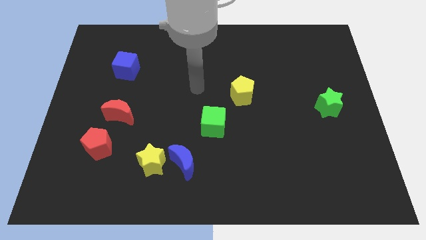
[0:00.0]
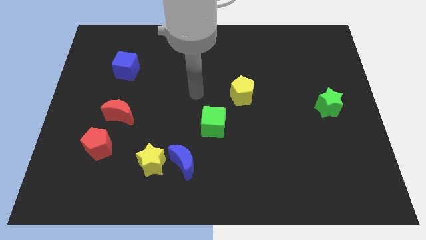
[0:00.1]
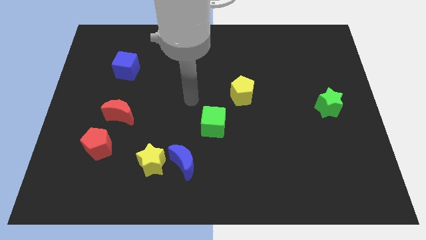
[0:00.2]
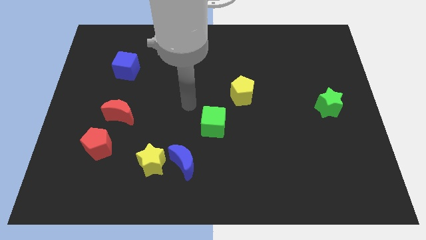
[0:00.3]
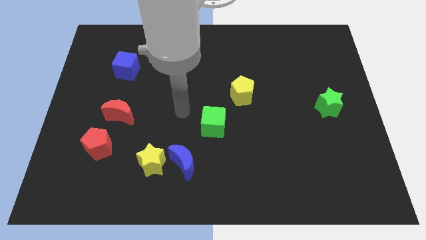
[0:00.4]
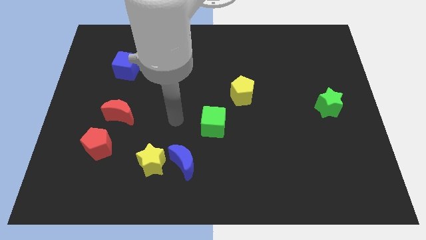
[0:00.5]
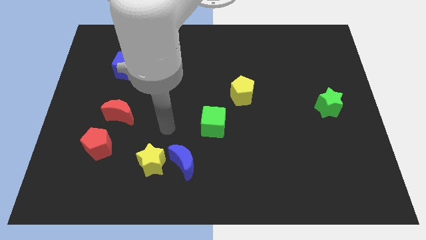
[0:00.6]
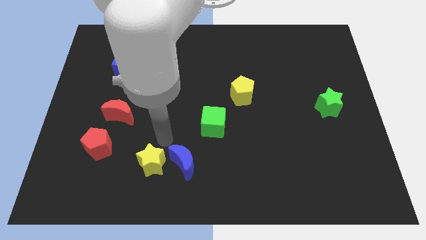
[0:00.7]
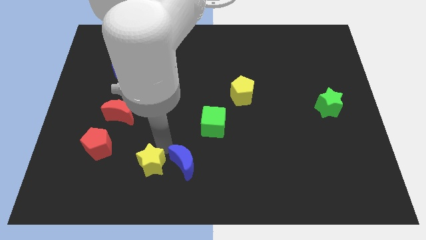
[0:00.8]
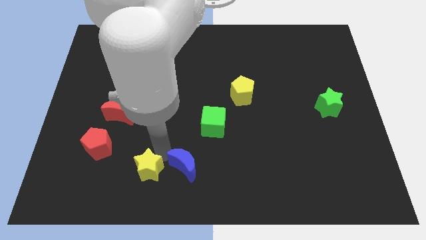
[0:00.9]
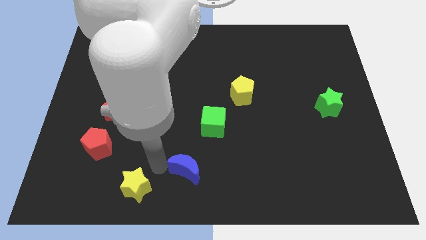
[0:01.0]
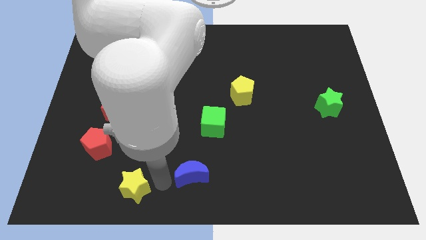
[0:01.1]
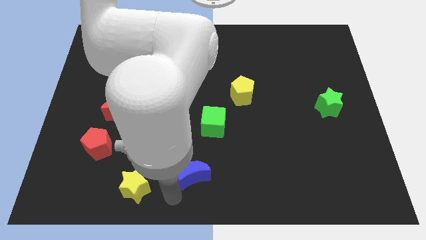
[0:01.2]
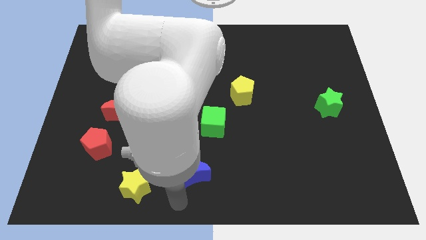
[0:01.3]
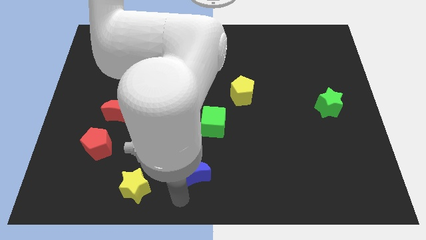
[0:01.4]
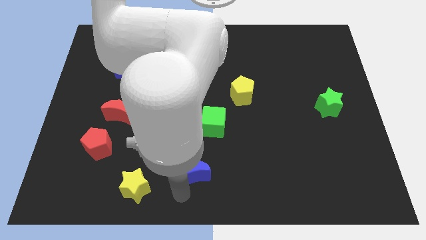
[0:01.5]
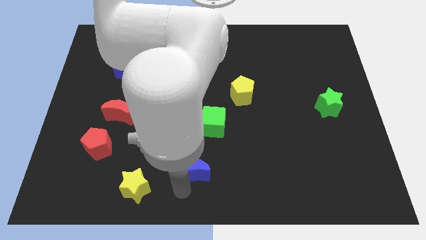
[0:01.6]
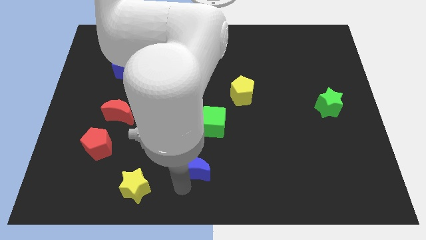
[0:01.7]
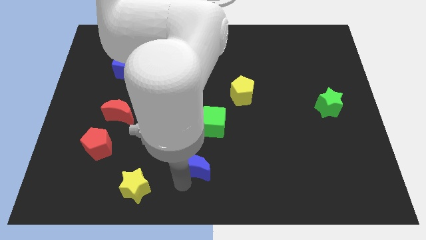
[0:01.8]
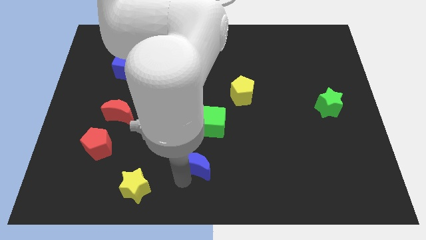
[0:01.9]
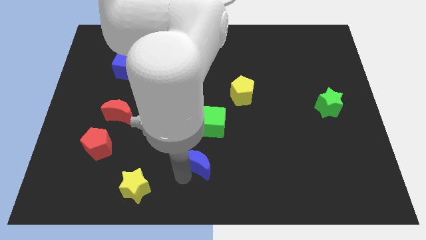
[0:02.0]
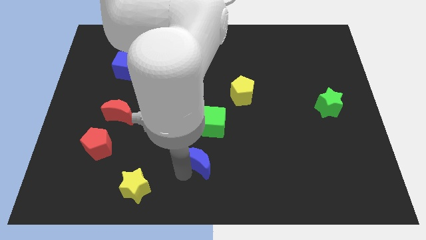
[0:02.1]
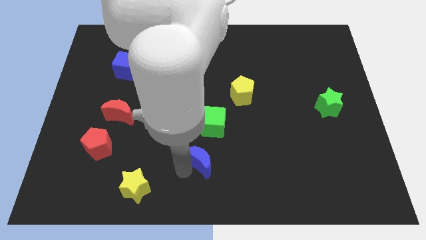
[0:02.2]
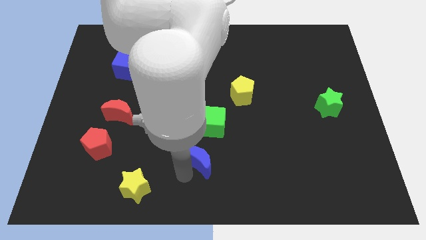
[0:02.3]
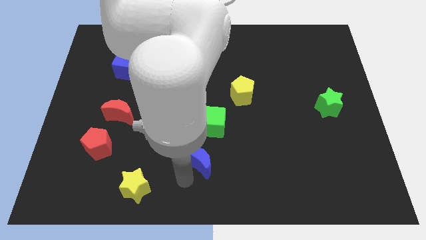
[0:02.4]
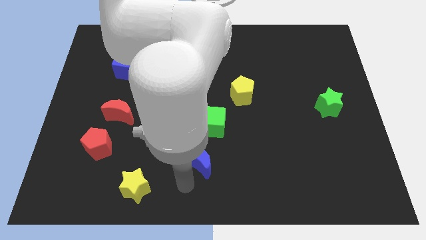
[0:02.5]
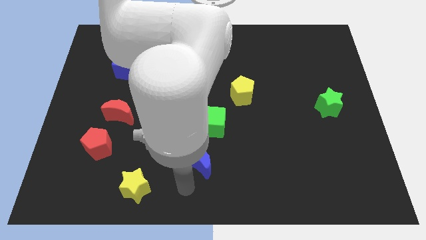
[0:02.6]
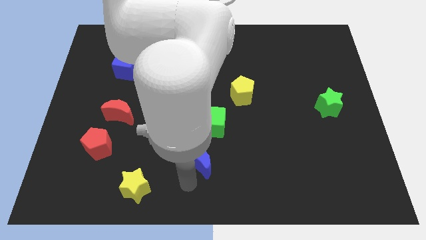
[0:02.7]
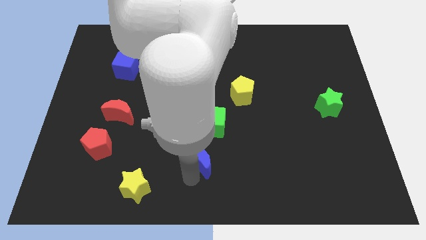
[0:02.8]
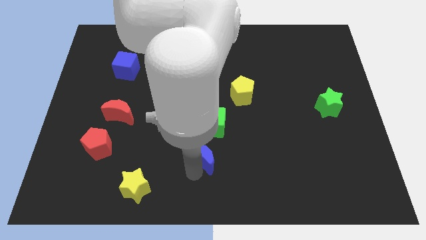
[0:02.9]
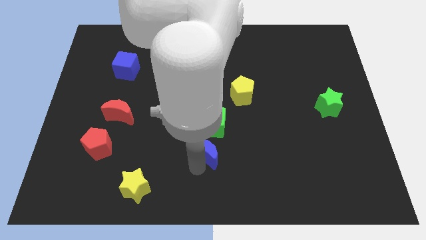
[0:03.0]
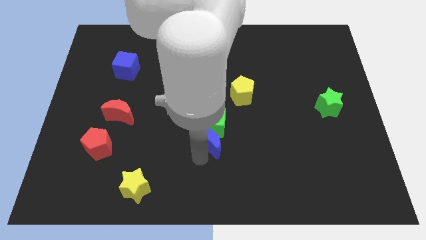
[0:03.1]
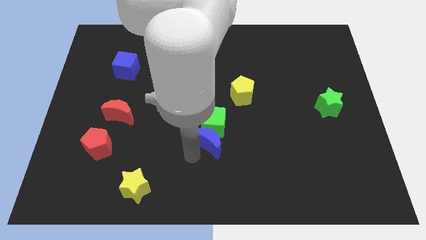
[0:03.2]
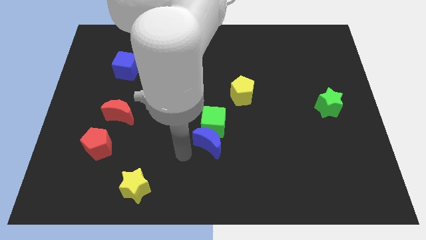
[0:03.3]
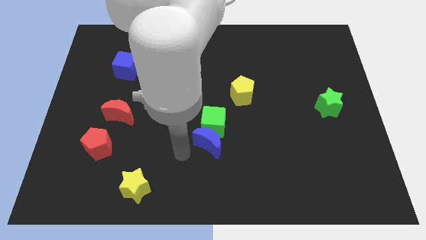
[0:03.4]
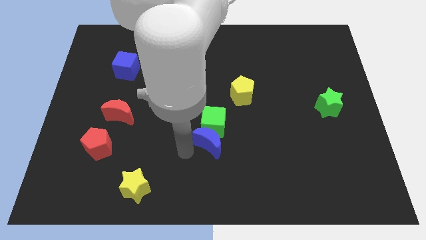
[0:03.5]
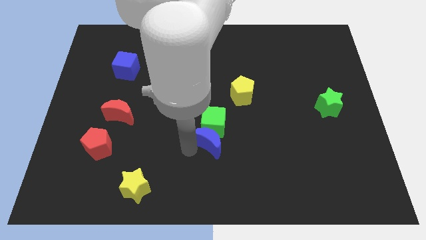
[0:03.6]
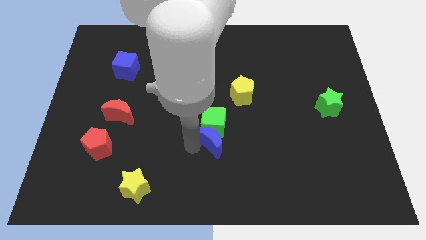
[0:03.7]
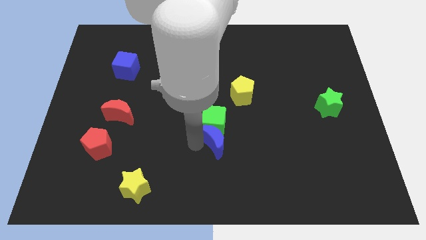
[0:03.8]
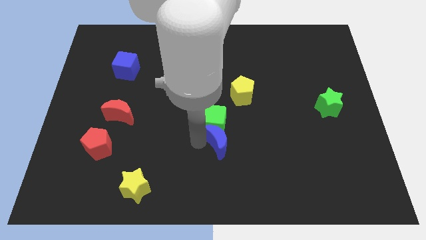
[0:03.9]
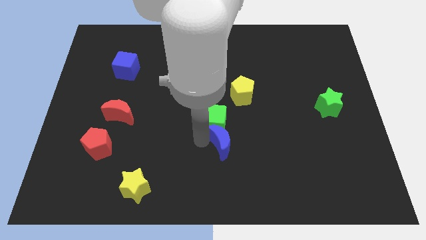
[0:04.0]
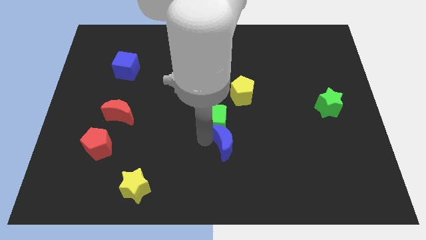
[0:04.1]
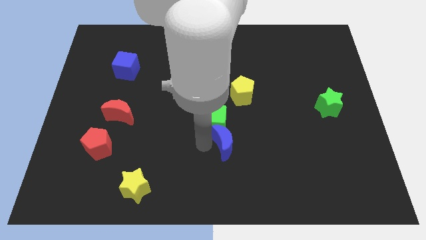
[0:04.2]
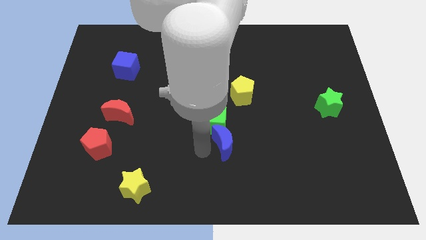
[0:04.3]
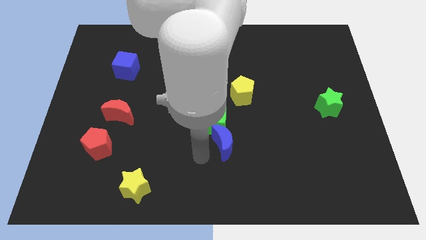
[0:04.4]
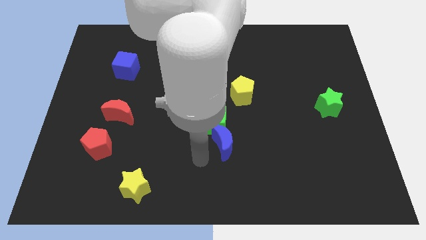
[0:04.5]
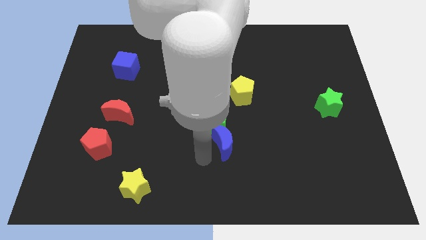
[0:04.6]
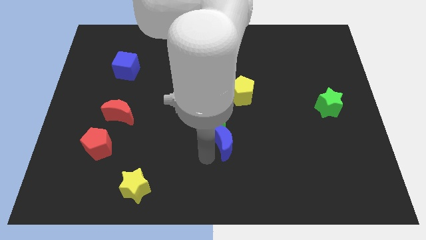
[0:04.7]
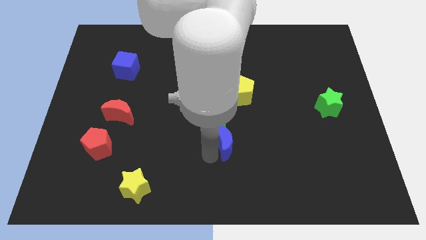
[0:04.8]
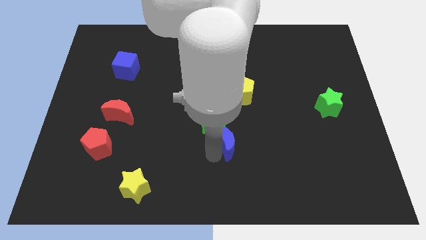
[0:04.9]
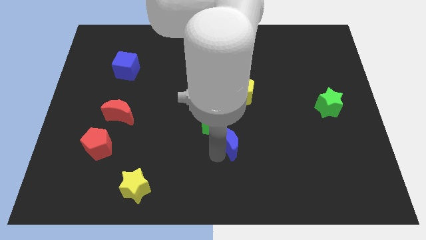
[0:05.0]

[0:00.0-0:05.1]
push the blue moon to the bottom side of the yellow pentagon

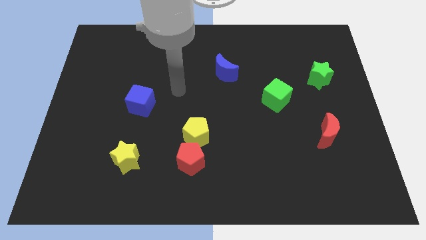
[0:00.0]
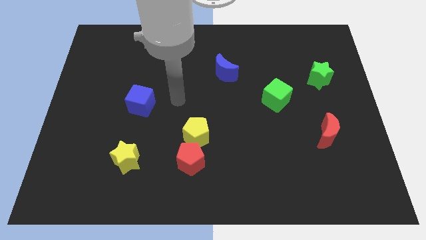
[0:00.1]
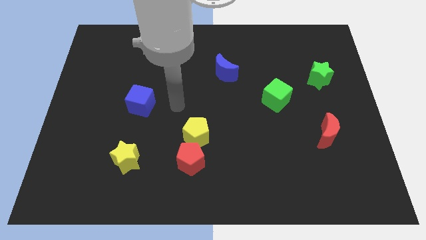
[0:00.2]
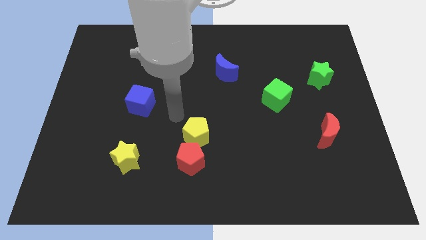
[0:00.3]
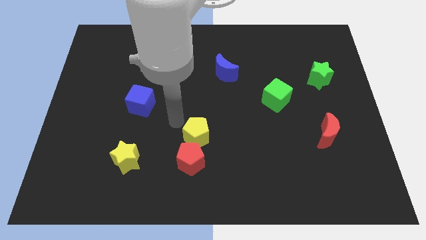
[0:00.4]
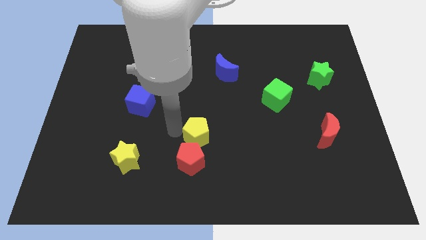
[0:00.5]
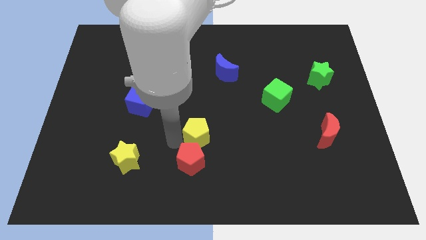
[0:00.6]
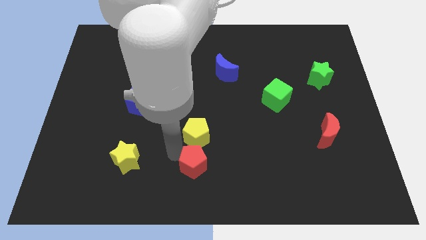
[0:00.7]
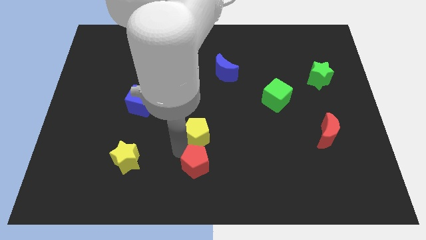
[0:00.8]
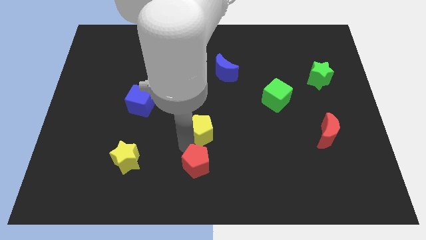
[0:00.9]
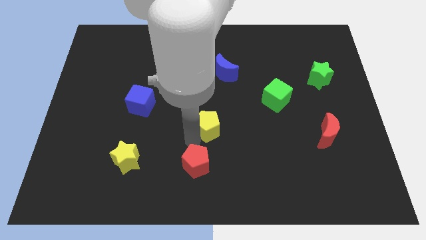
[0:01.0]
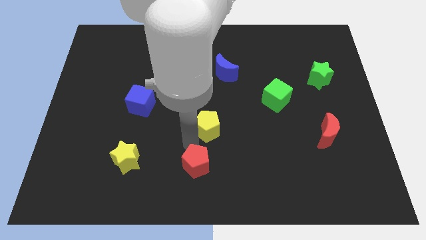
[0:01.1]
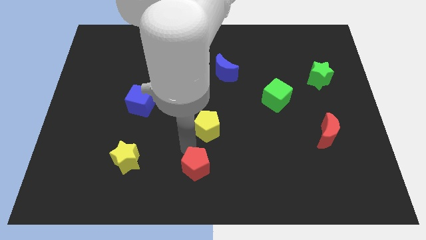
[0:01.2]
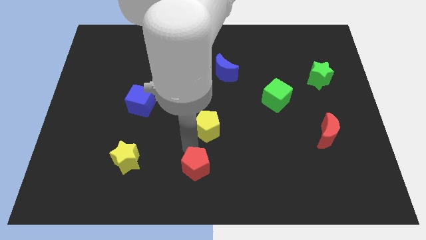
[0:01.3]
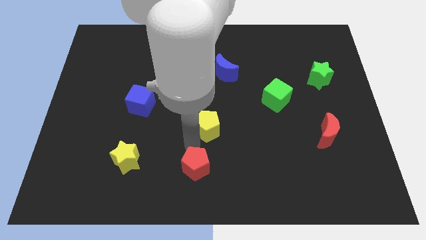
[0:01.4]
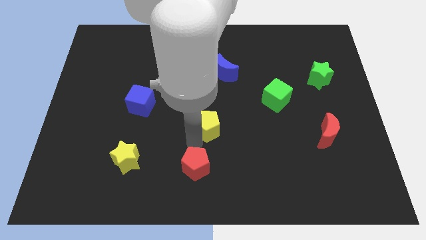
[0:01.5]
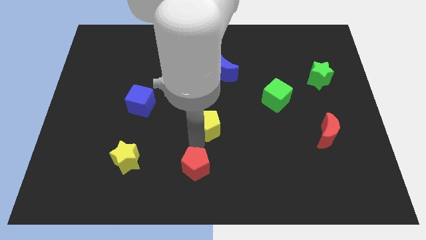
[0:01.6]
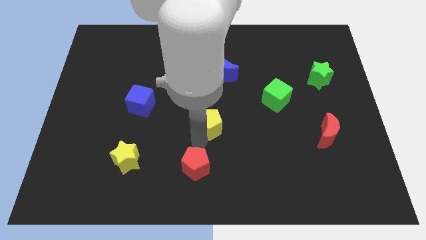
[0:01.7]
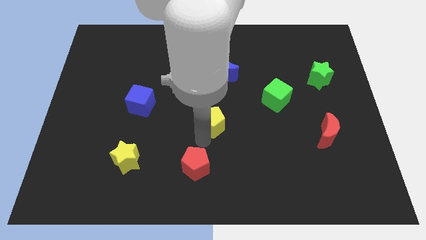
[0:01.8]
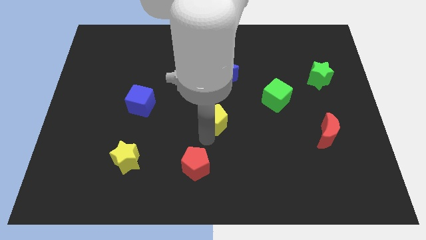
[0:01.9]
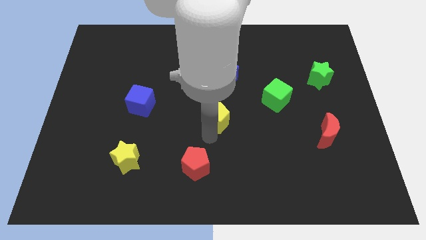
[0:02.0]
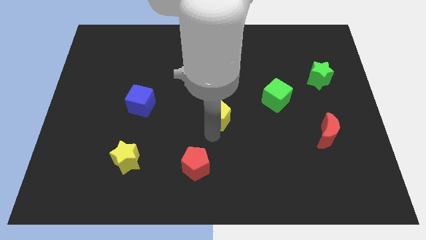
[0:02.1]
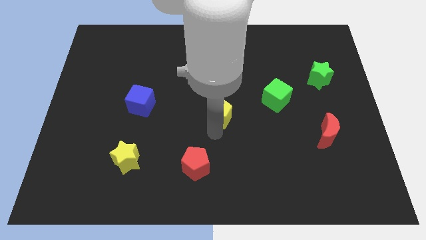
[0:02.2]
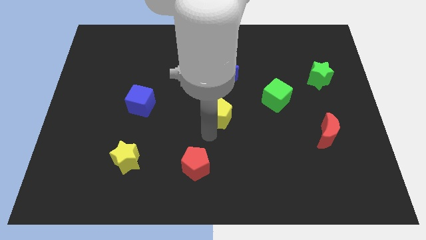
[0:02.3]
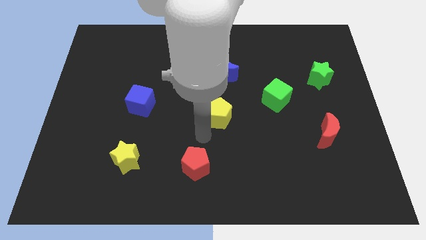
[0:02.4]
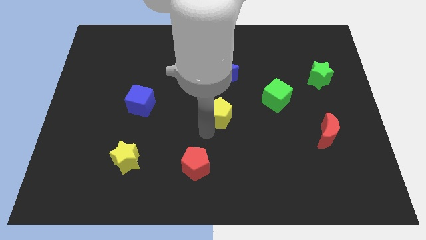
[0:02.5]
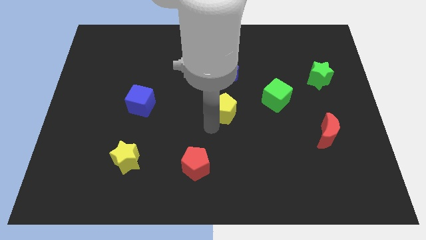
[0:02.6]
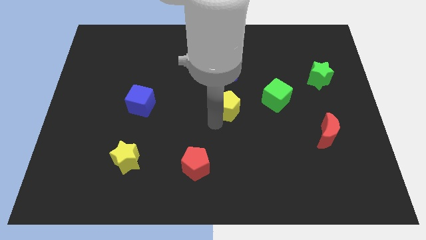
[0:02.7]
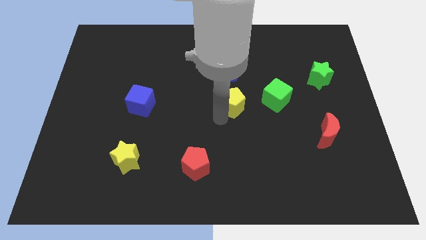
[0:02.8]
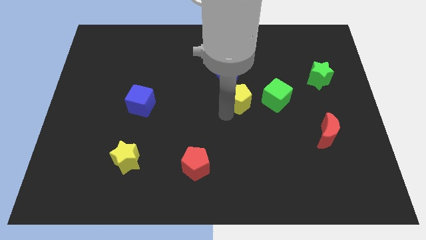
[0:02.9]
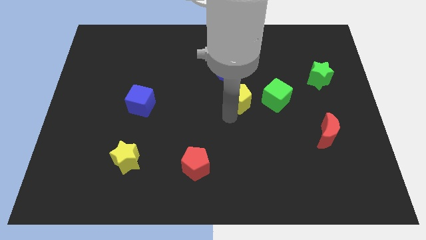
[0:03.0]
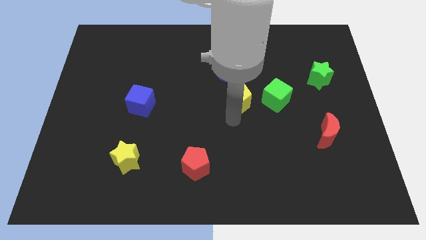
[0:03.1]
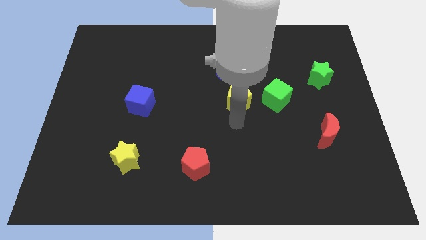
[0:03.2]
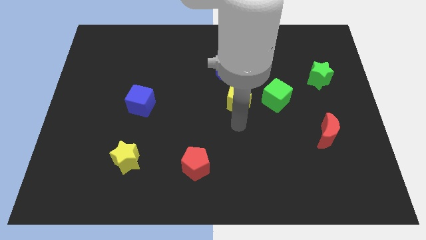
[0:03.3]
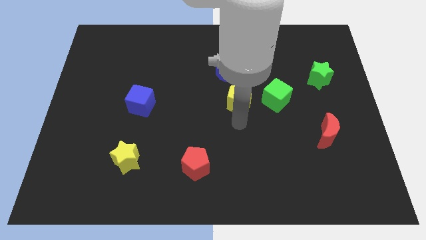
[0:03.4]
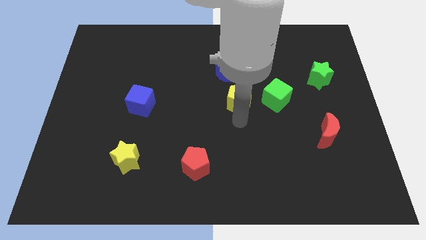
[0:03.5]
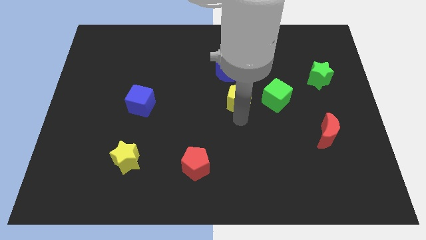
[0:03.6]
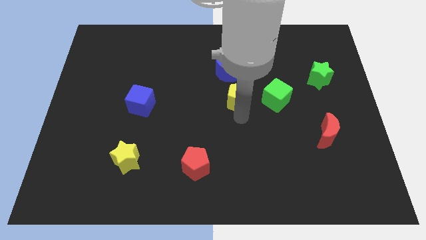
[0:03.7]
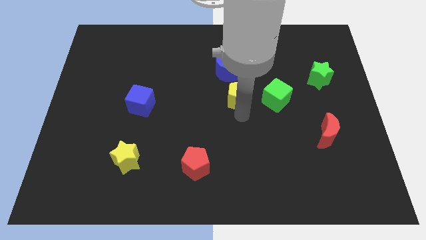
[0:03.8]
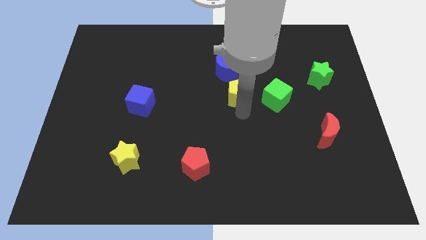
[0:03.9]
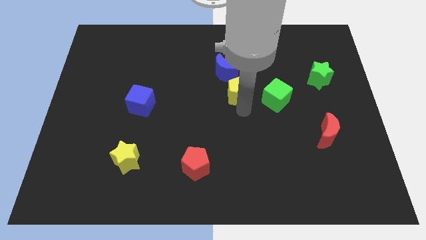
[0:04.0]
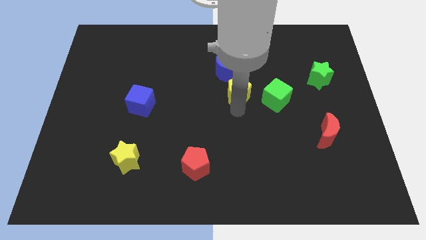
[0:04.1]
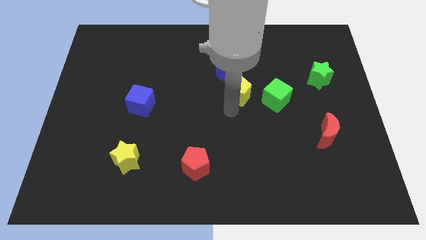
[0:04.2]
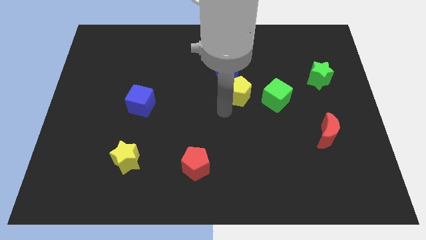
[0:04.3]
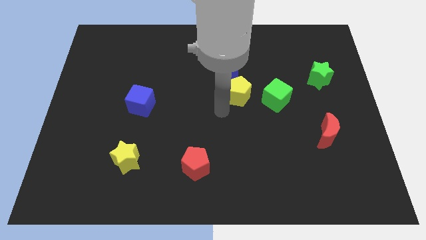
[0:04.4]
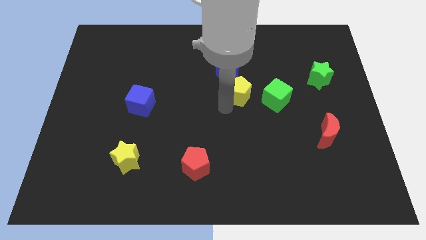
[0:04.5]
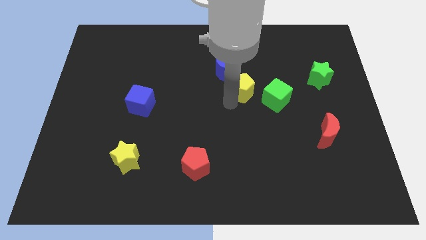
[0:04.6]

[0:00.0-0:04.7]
slide the yellow pentagon to the top left of the green cube
